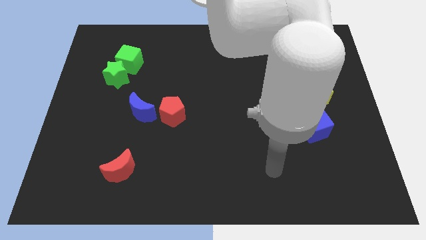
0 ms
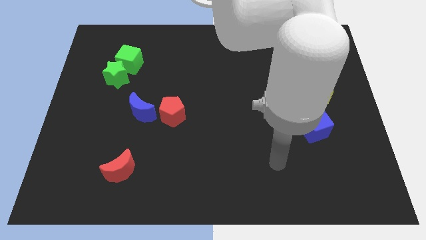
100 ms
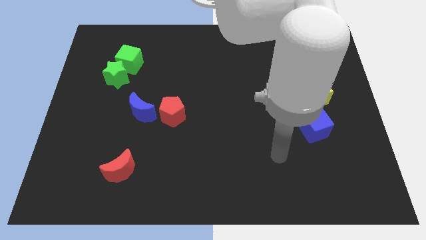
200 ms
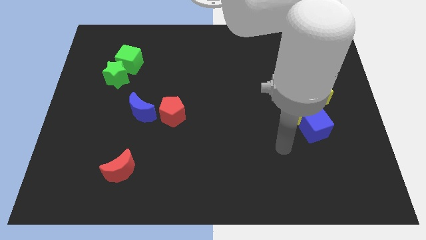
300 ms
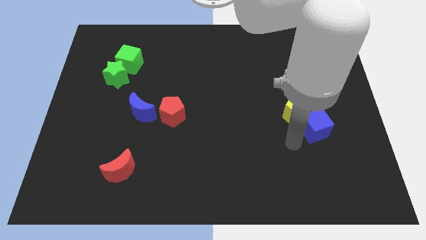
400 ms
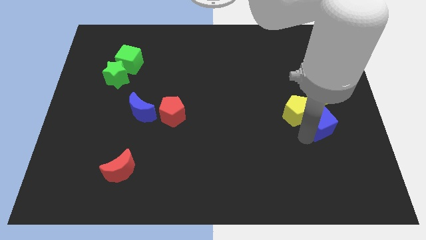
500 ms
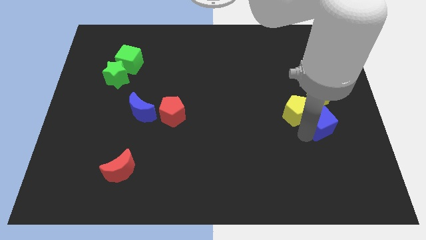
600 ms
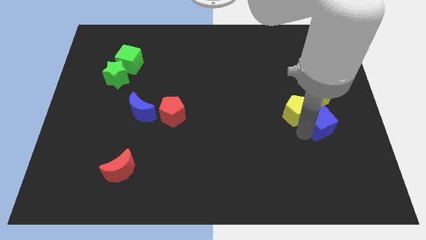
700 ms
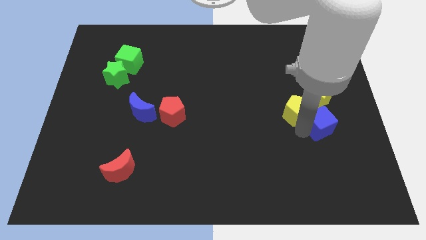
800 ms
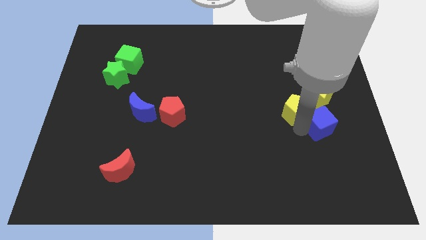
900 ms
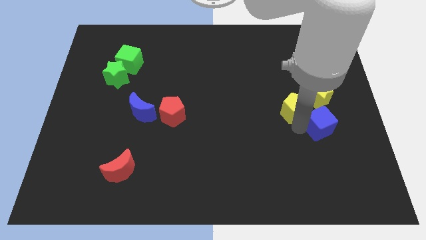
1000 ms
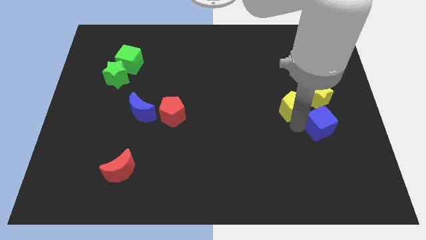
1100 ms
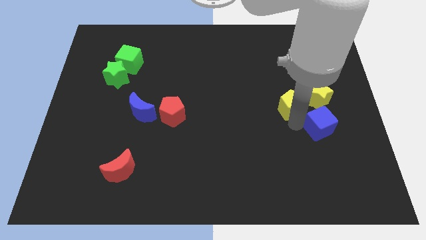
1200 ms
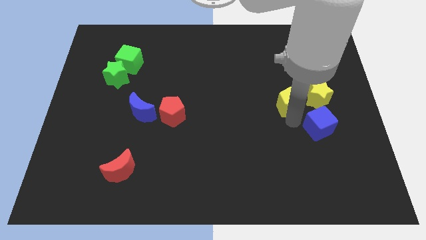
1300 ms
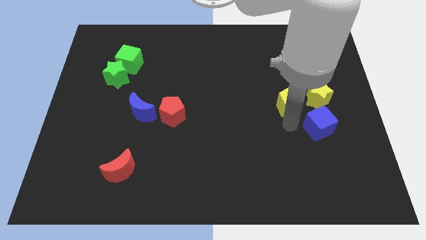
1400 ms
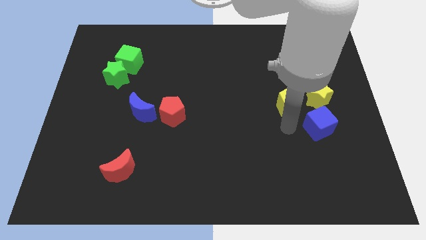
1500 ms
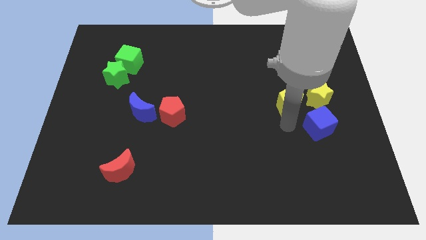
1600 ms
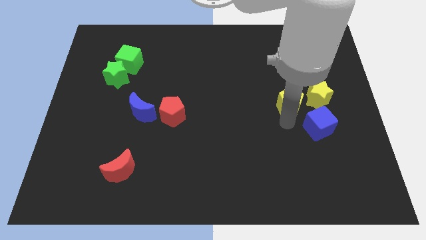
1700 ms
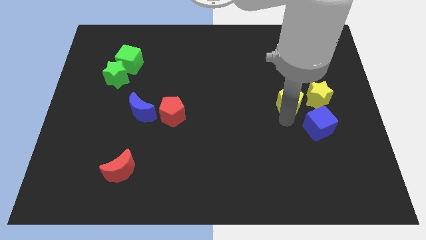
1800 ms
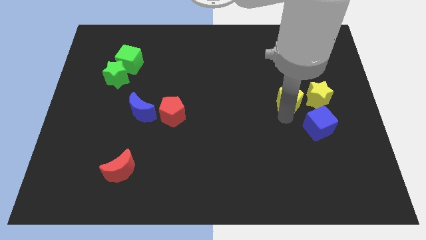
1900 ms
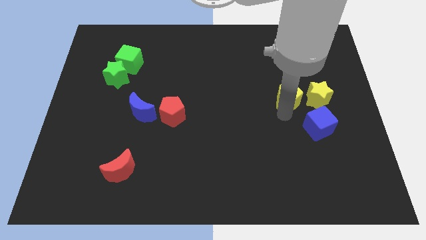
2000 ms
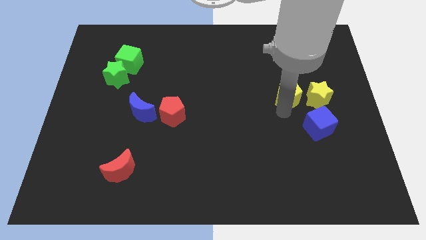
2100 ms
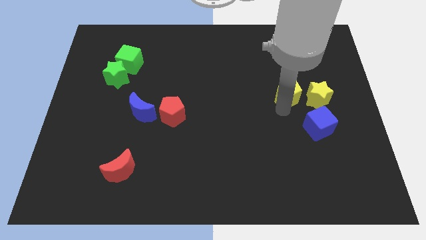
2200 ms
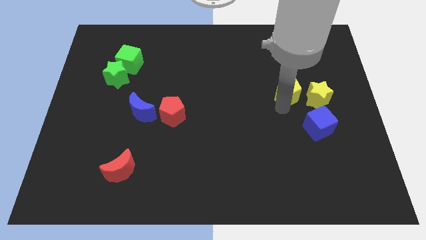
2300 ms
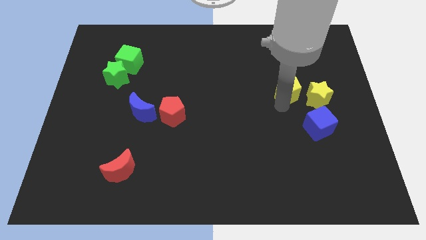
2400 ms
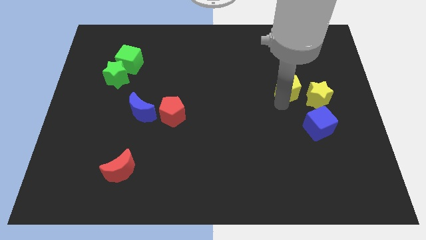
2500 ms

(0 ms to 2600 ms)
slightly slide the yellow pentagon upwards

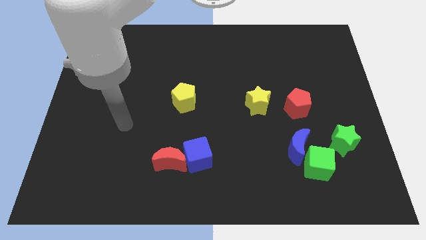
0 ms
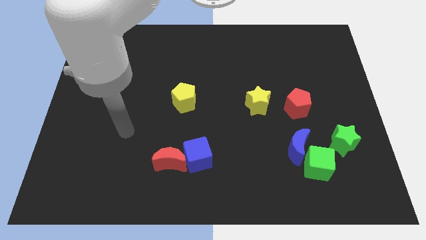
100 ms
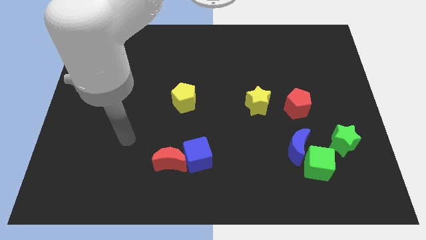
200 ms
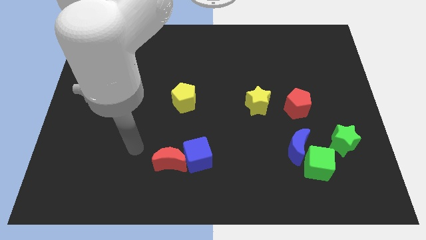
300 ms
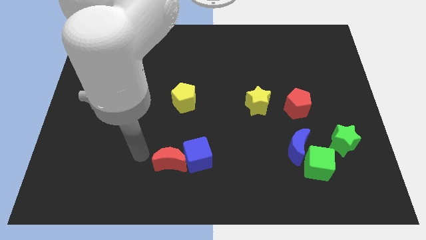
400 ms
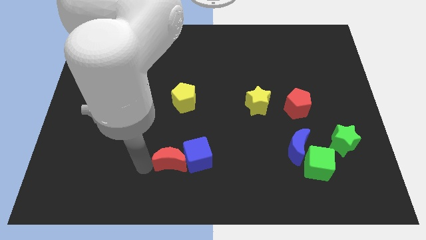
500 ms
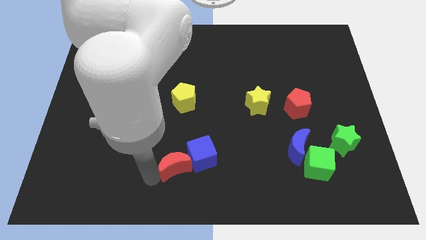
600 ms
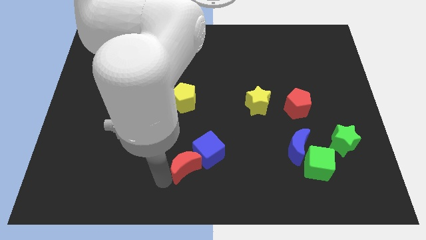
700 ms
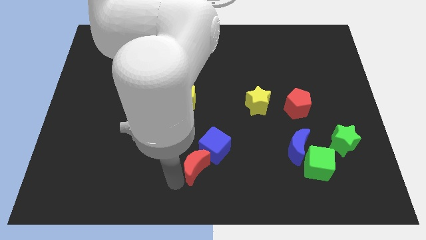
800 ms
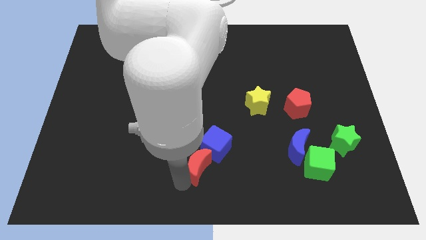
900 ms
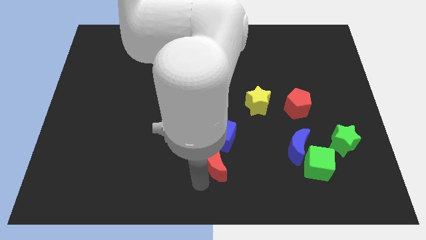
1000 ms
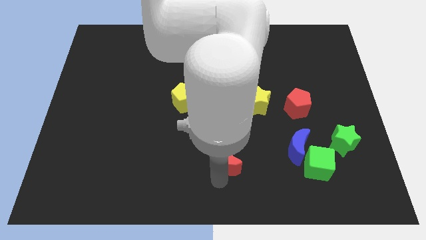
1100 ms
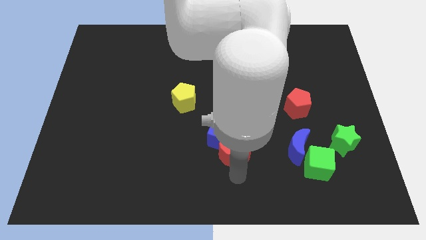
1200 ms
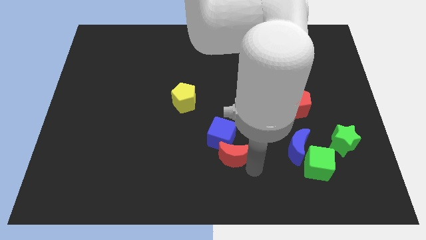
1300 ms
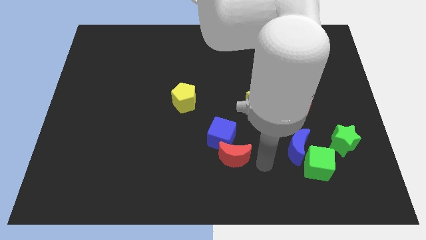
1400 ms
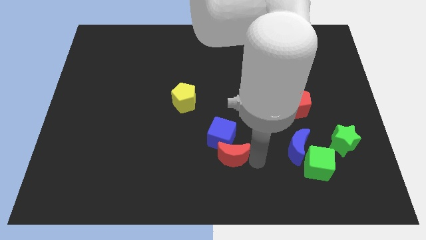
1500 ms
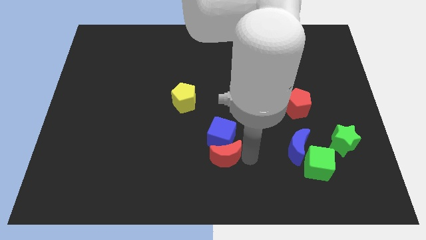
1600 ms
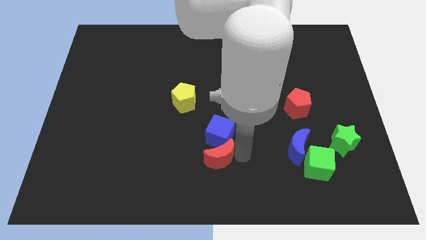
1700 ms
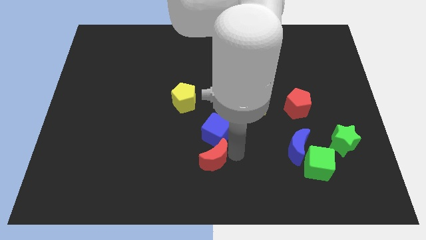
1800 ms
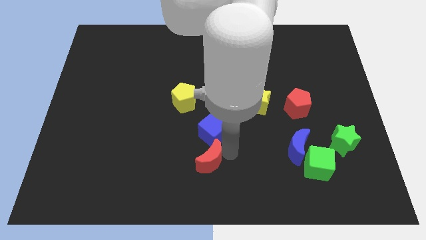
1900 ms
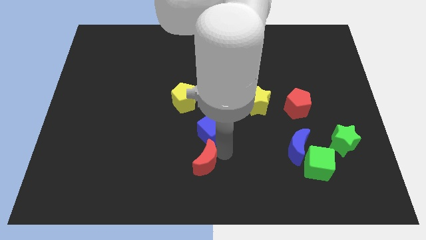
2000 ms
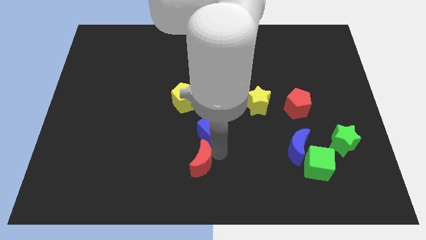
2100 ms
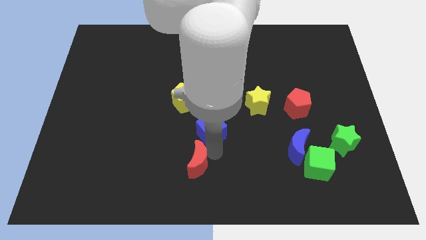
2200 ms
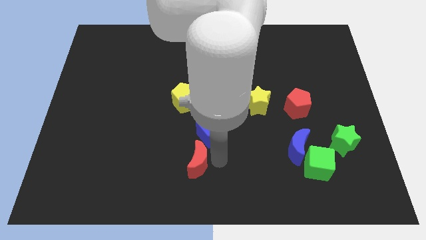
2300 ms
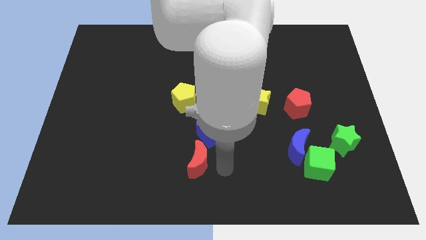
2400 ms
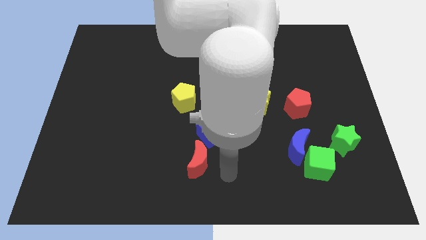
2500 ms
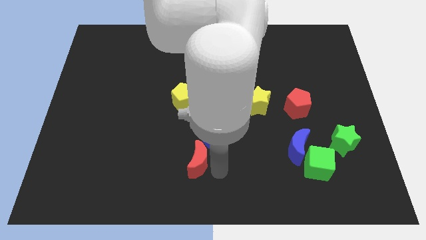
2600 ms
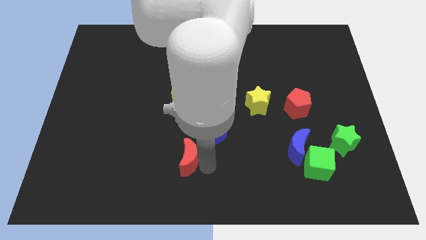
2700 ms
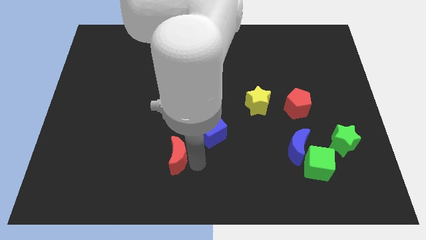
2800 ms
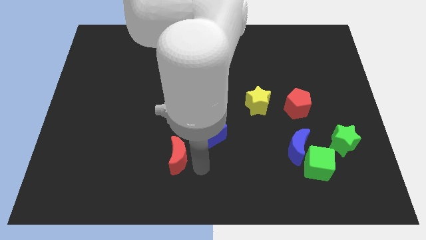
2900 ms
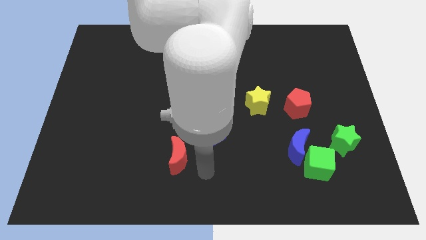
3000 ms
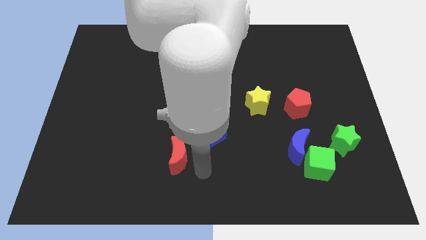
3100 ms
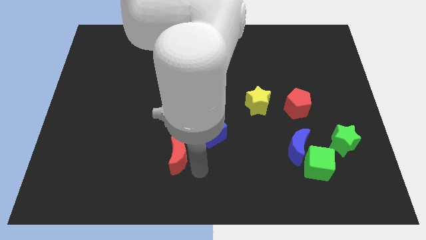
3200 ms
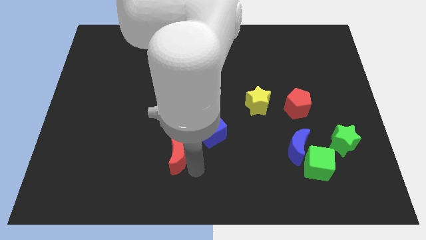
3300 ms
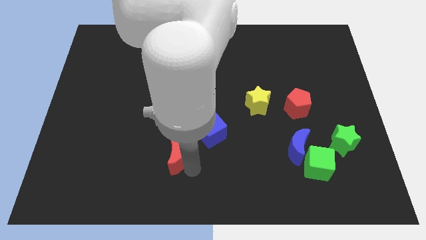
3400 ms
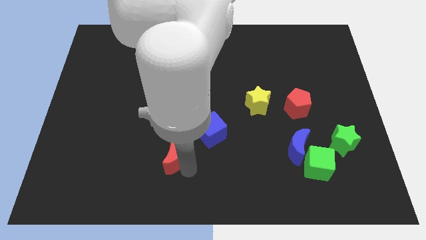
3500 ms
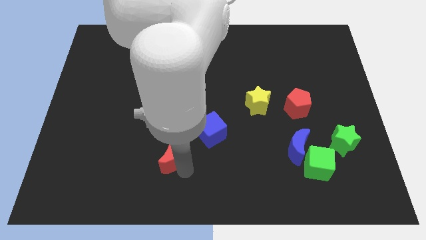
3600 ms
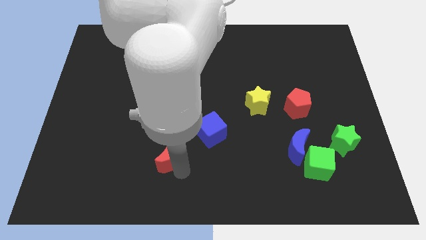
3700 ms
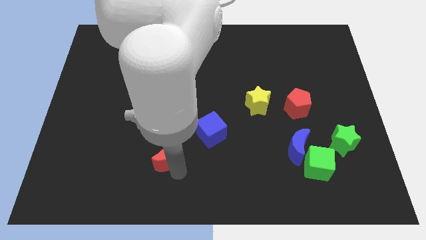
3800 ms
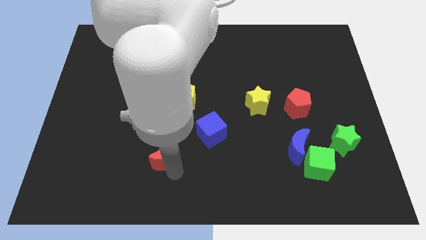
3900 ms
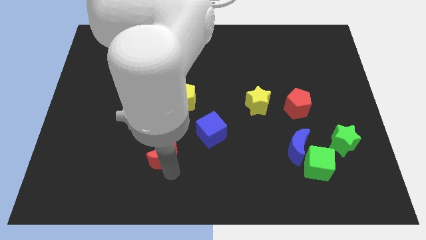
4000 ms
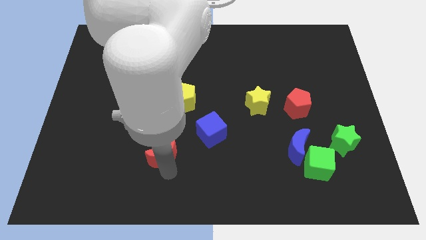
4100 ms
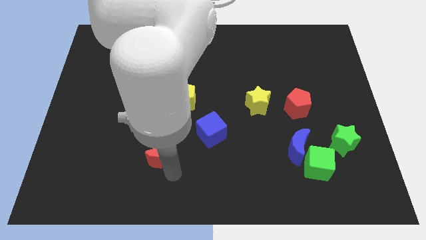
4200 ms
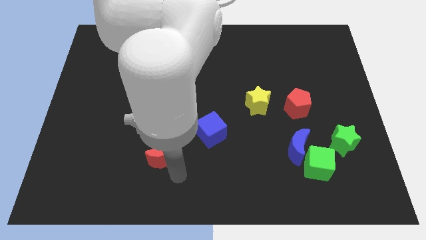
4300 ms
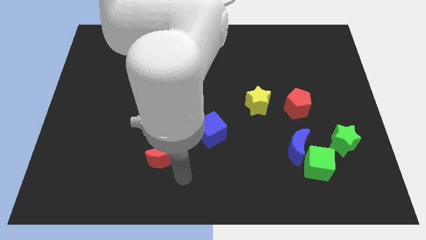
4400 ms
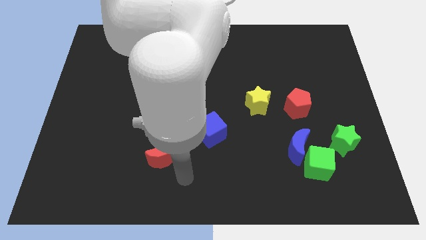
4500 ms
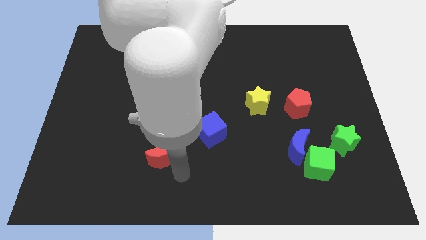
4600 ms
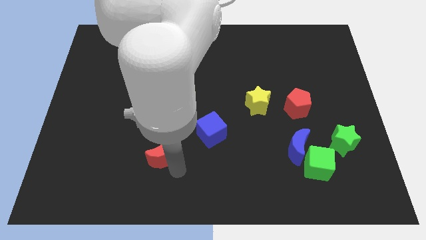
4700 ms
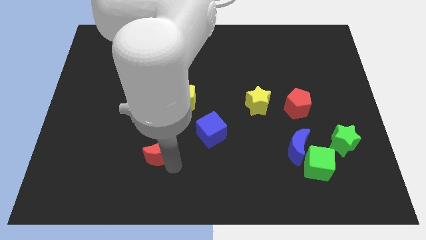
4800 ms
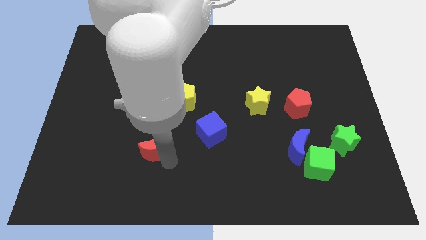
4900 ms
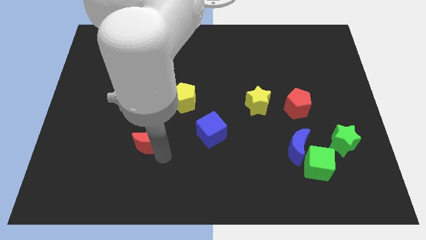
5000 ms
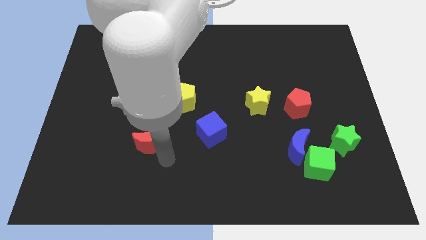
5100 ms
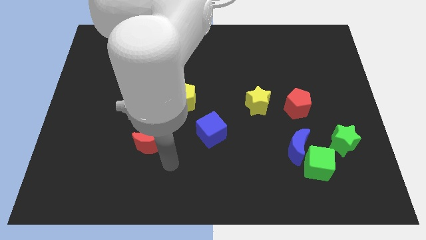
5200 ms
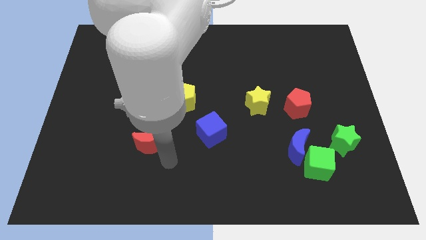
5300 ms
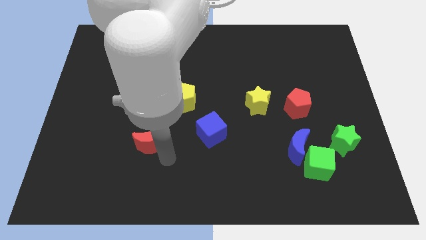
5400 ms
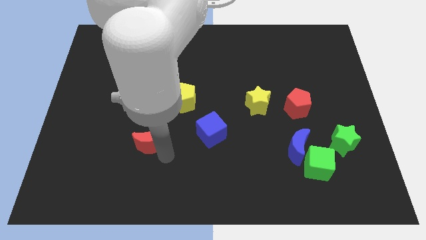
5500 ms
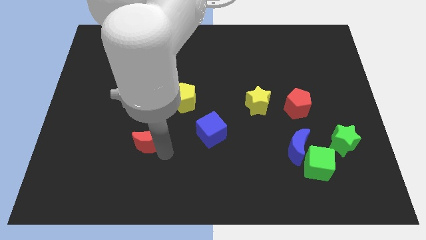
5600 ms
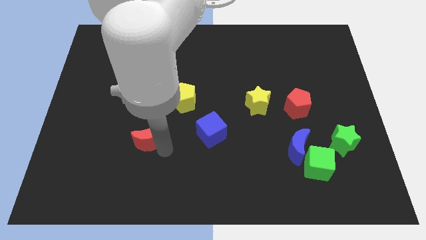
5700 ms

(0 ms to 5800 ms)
move the red moon slightly up and left
